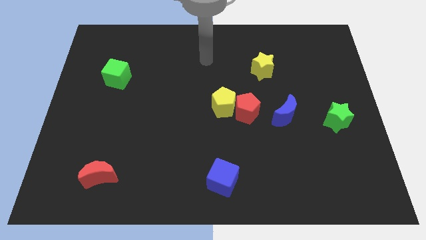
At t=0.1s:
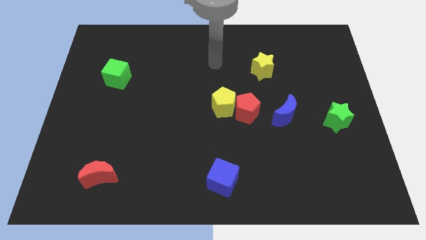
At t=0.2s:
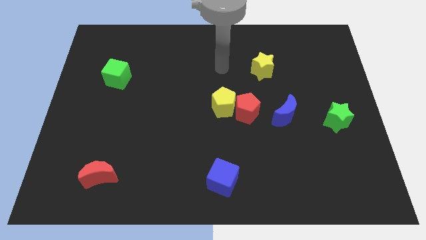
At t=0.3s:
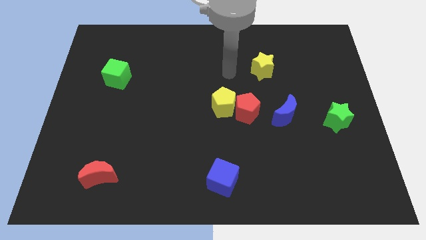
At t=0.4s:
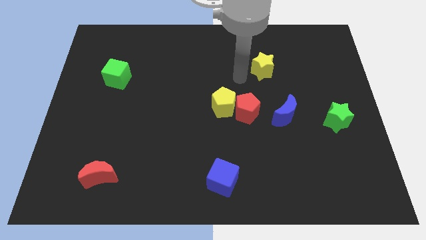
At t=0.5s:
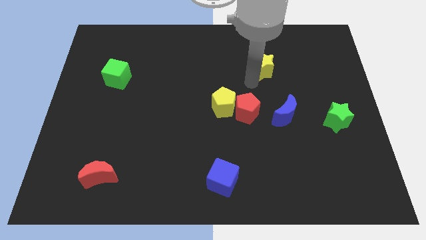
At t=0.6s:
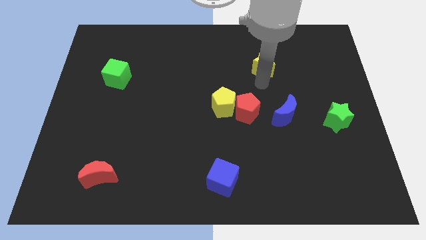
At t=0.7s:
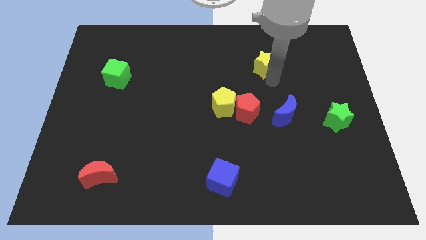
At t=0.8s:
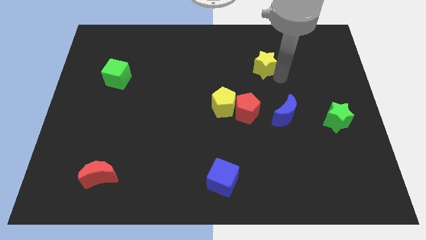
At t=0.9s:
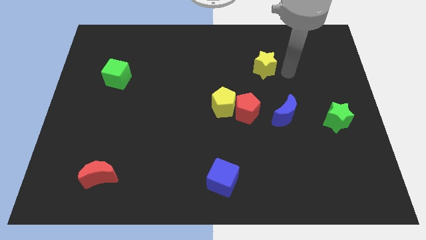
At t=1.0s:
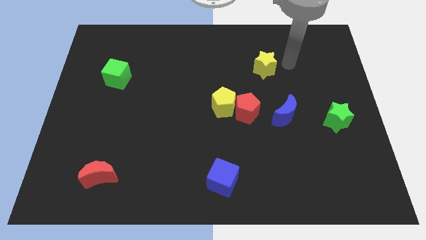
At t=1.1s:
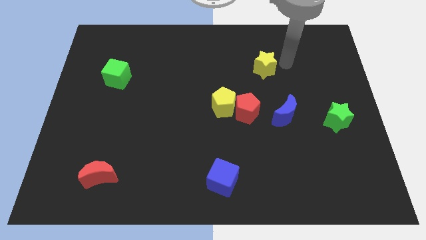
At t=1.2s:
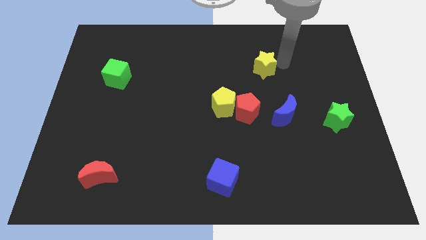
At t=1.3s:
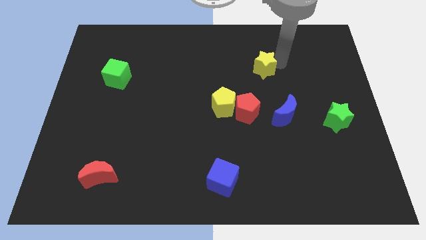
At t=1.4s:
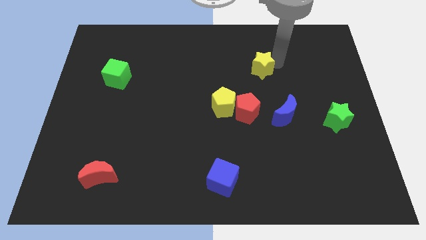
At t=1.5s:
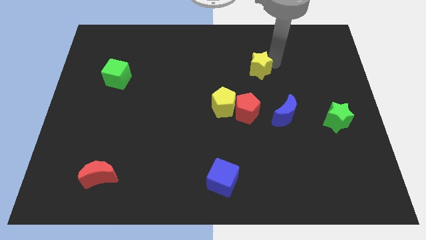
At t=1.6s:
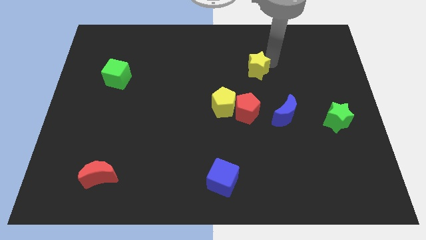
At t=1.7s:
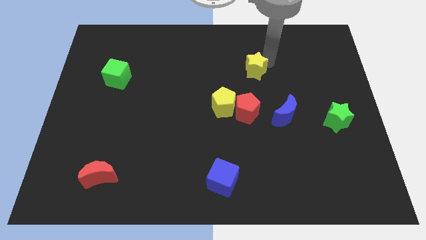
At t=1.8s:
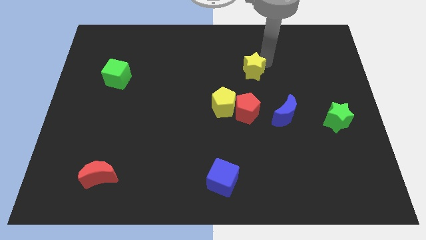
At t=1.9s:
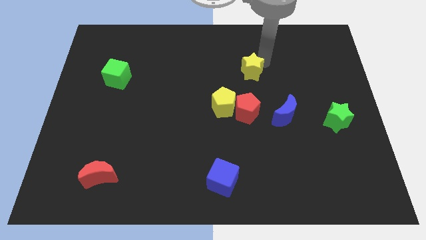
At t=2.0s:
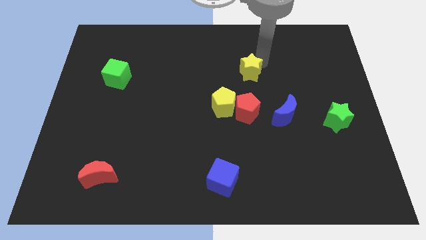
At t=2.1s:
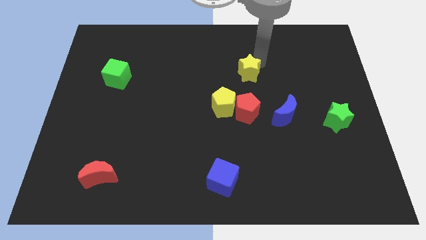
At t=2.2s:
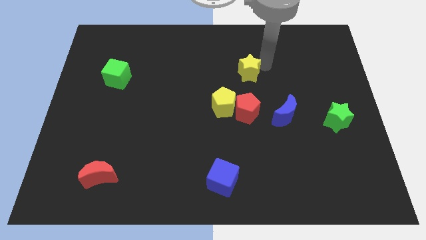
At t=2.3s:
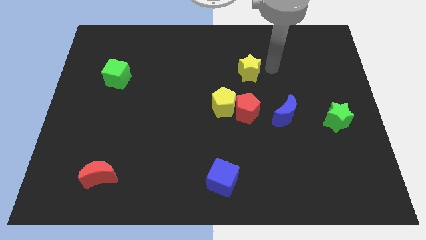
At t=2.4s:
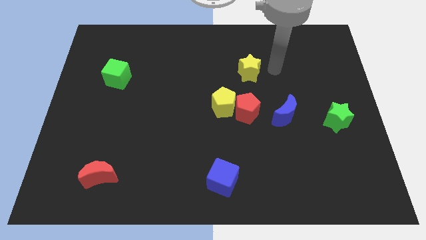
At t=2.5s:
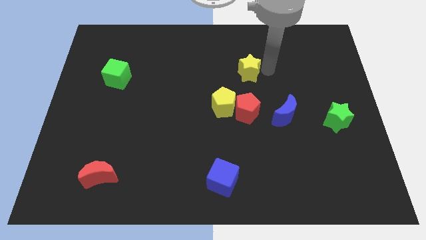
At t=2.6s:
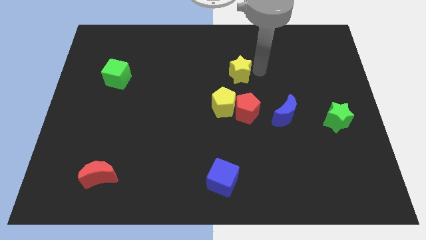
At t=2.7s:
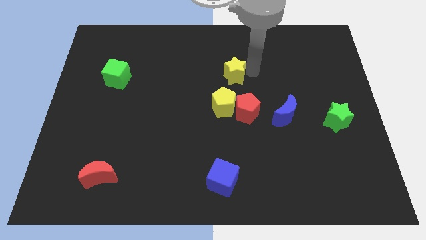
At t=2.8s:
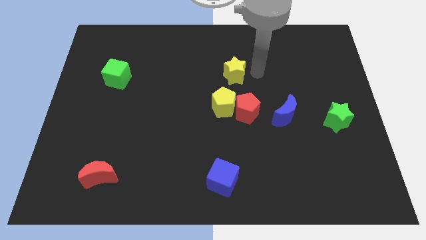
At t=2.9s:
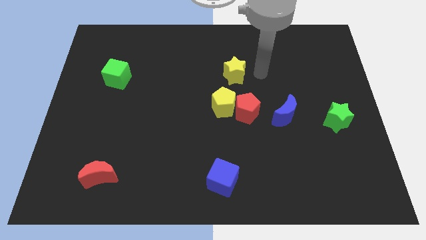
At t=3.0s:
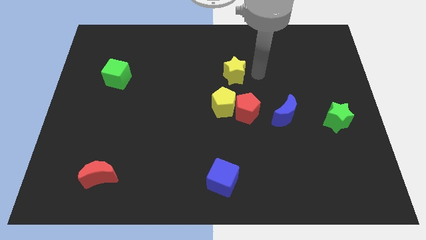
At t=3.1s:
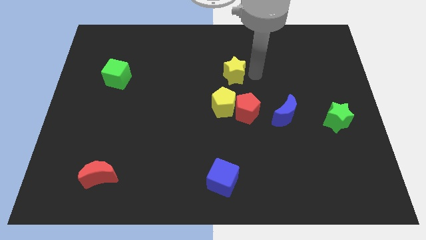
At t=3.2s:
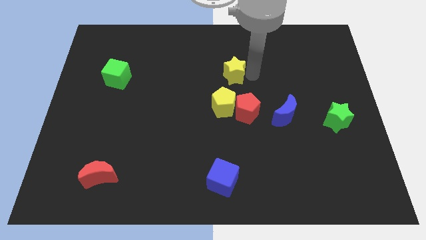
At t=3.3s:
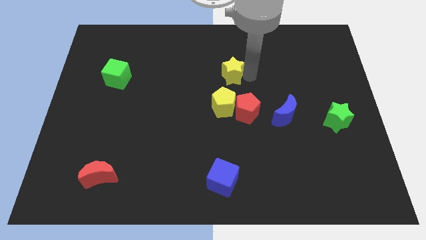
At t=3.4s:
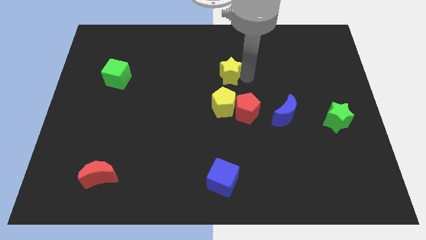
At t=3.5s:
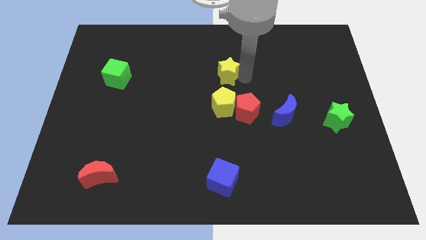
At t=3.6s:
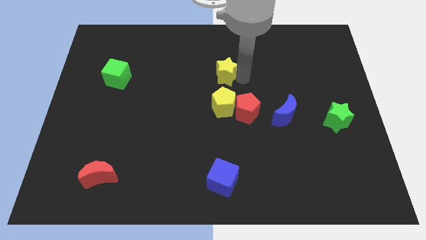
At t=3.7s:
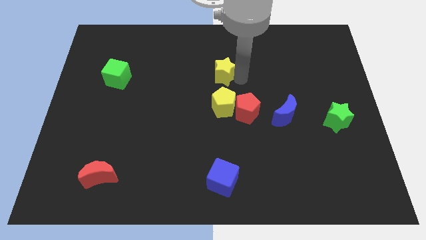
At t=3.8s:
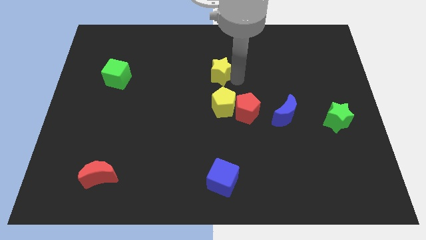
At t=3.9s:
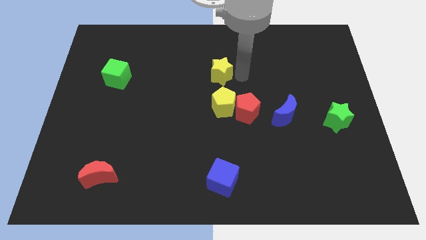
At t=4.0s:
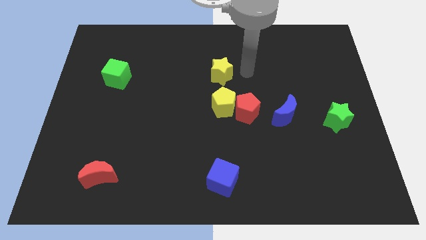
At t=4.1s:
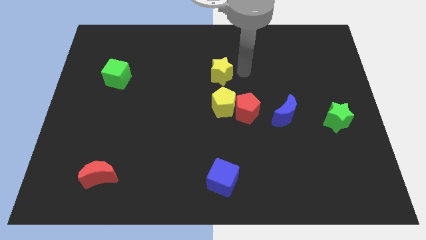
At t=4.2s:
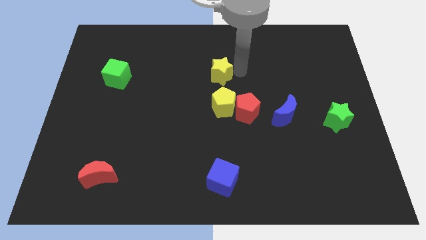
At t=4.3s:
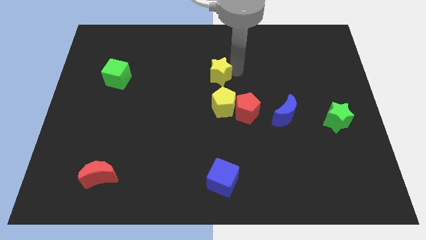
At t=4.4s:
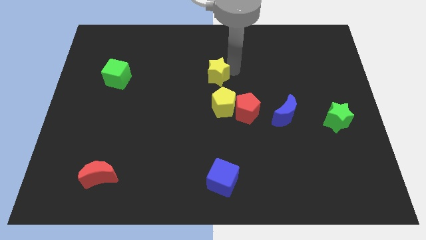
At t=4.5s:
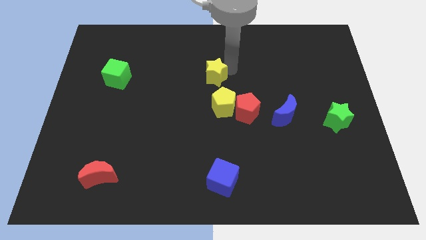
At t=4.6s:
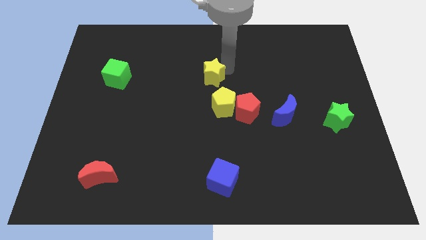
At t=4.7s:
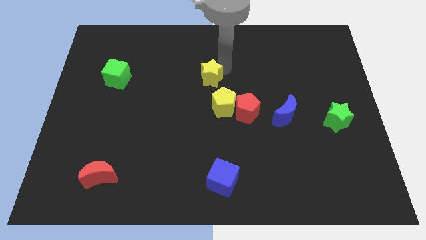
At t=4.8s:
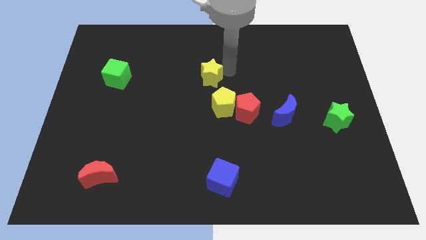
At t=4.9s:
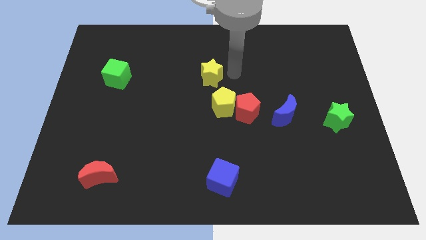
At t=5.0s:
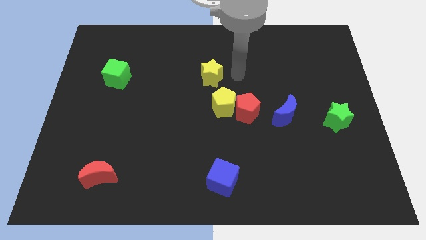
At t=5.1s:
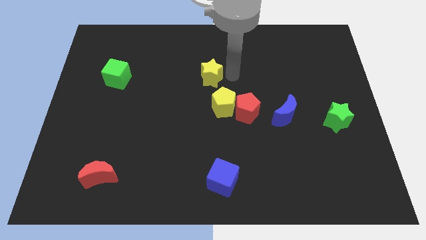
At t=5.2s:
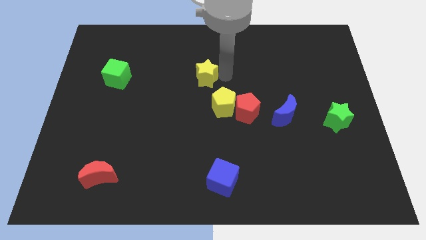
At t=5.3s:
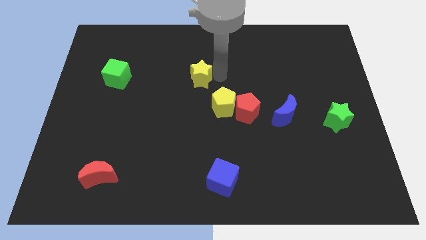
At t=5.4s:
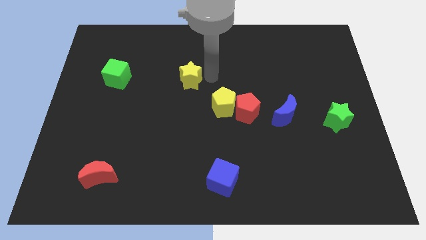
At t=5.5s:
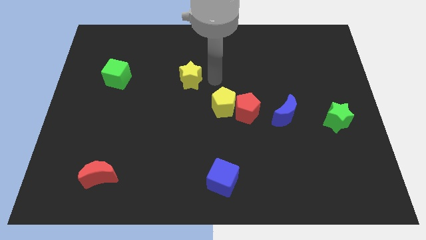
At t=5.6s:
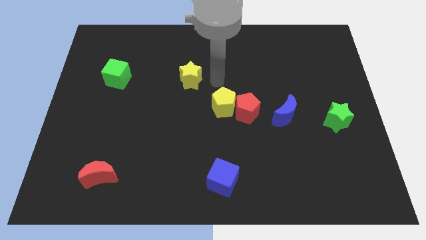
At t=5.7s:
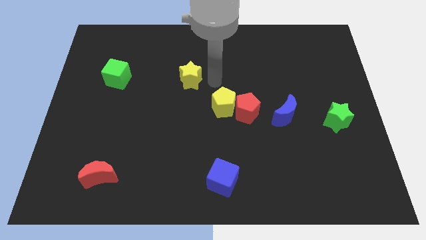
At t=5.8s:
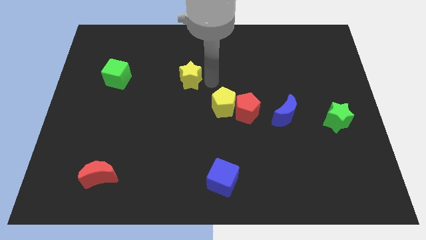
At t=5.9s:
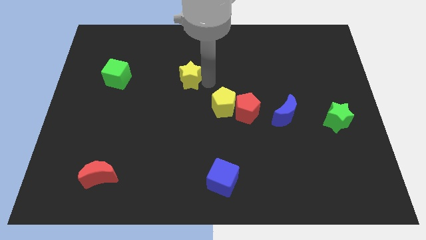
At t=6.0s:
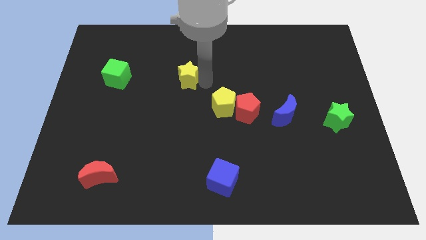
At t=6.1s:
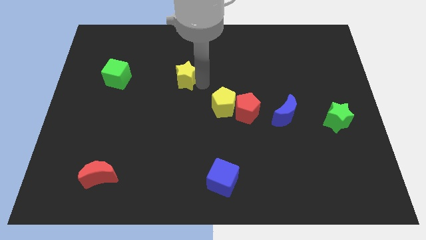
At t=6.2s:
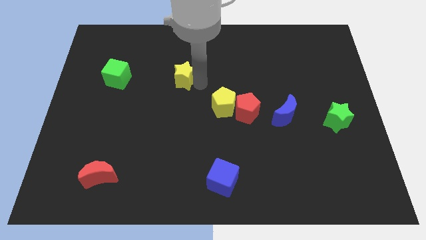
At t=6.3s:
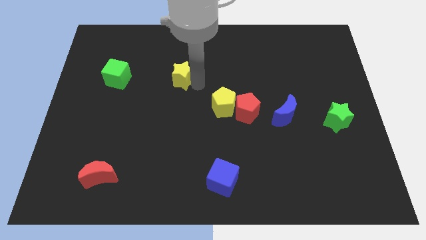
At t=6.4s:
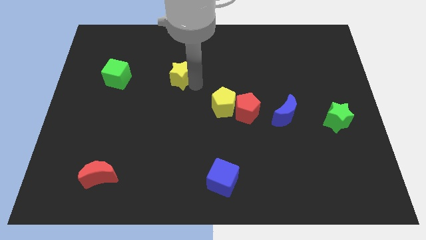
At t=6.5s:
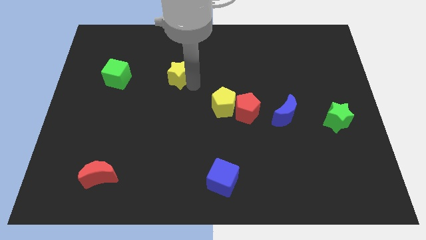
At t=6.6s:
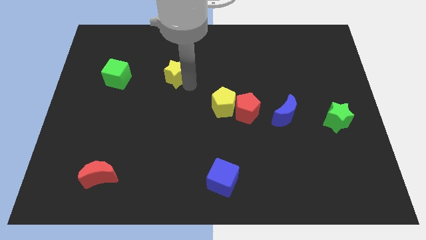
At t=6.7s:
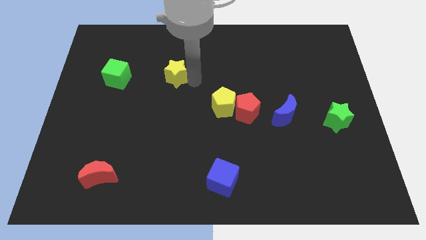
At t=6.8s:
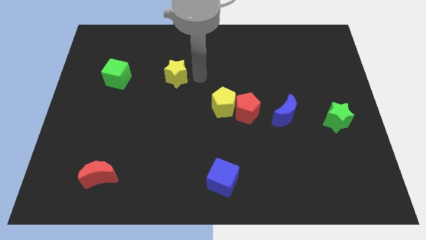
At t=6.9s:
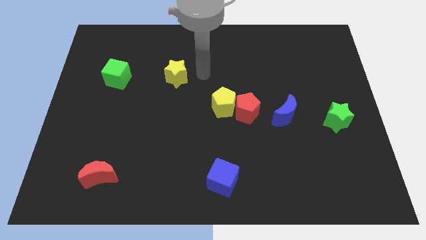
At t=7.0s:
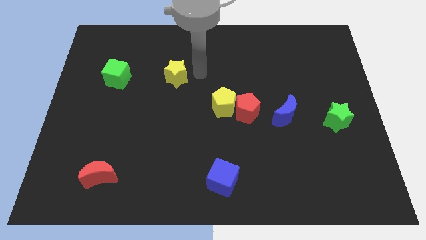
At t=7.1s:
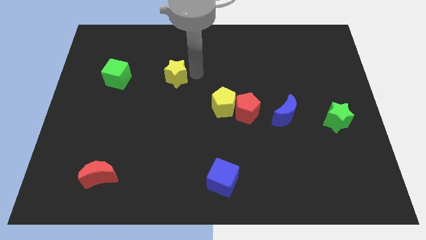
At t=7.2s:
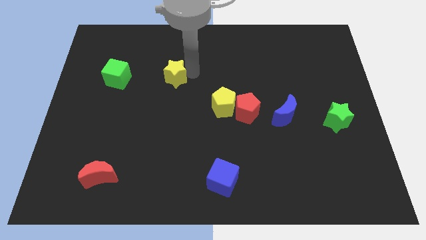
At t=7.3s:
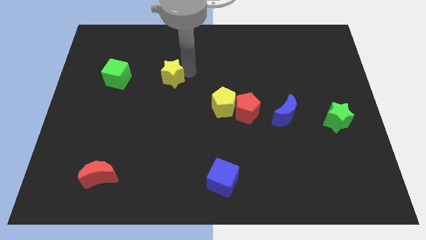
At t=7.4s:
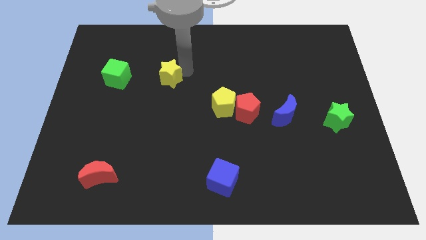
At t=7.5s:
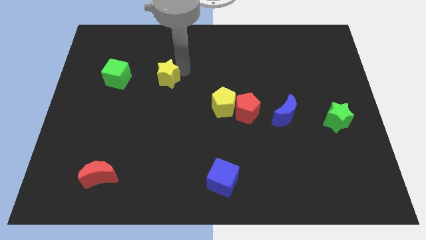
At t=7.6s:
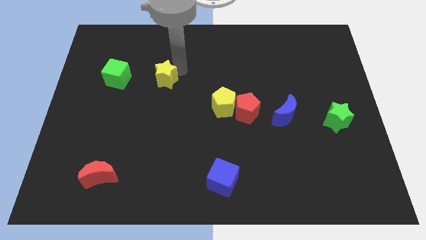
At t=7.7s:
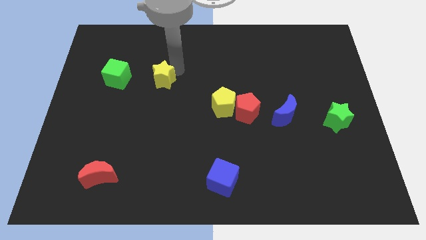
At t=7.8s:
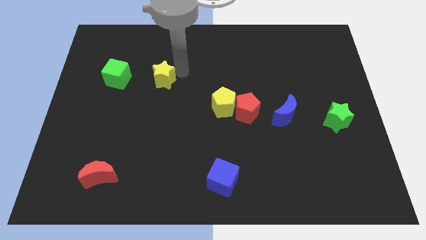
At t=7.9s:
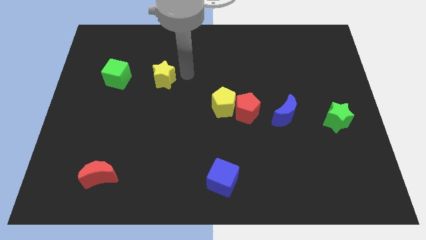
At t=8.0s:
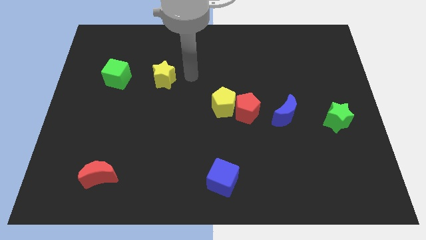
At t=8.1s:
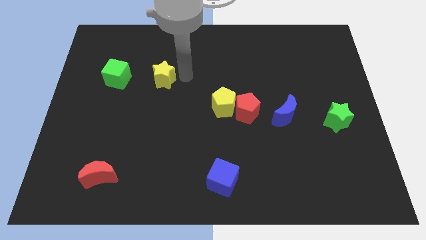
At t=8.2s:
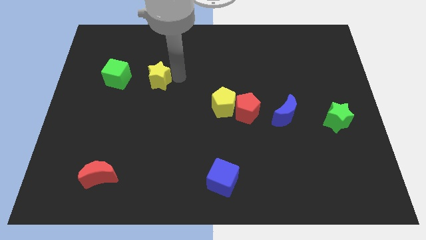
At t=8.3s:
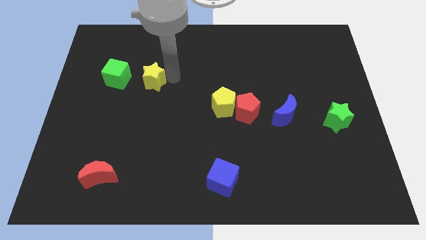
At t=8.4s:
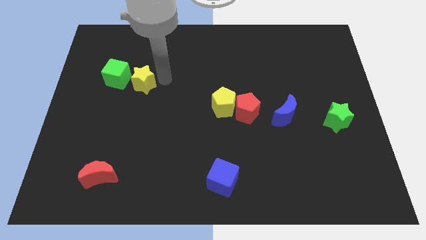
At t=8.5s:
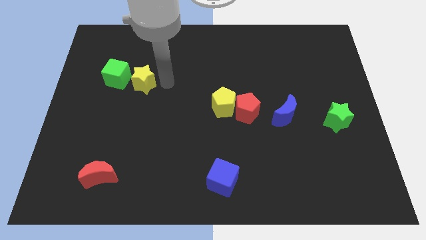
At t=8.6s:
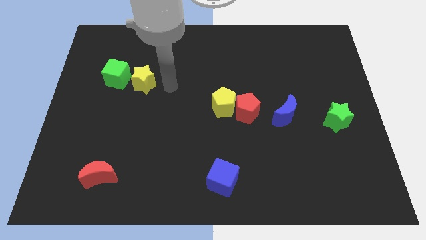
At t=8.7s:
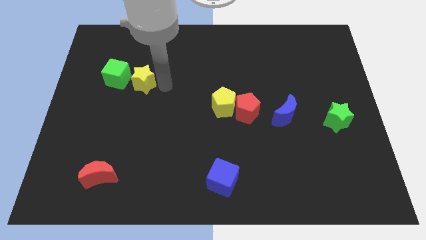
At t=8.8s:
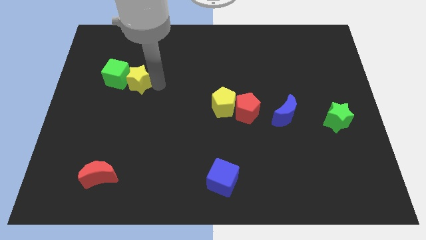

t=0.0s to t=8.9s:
push the yellow star to the green cube
